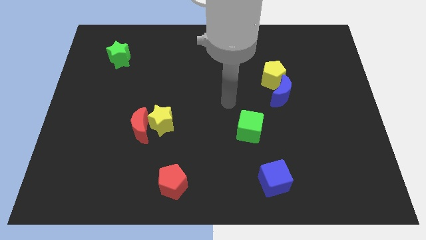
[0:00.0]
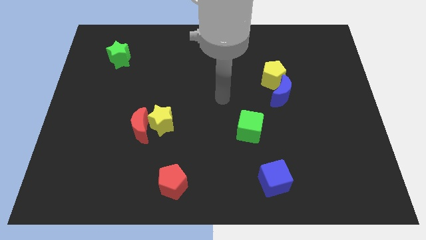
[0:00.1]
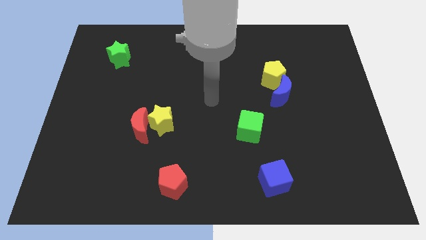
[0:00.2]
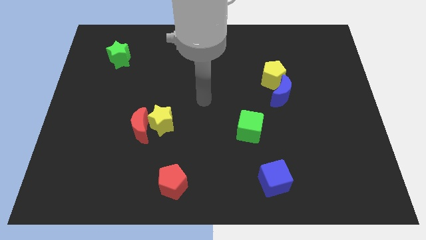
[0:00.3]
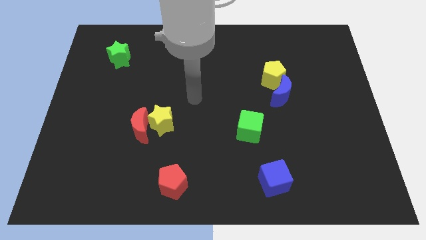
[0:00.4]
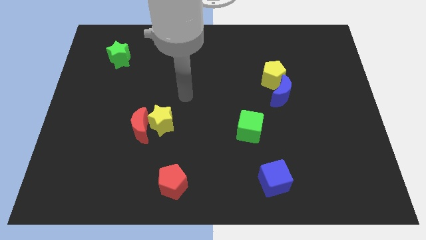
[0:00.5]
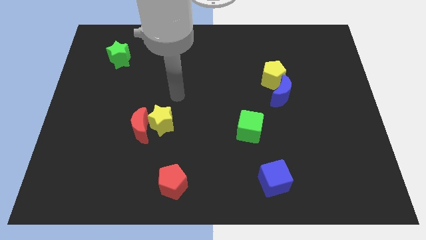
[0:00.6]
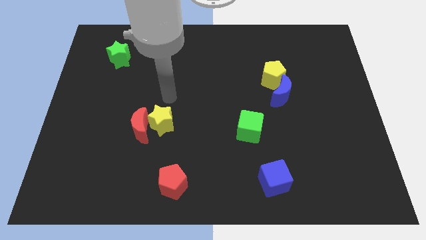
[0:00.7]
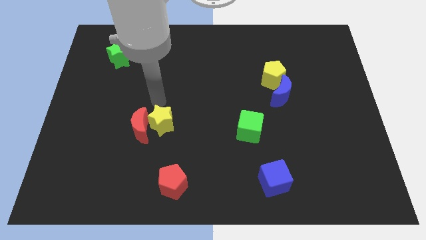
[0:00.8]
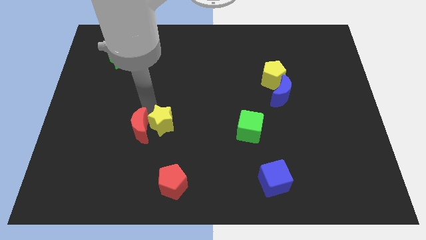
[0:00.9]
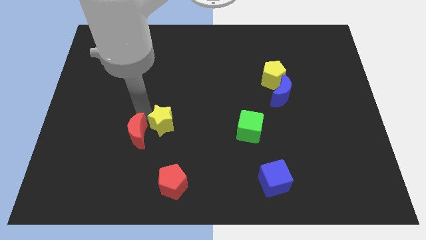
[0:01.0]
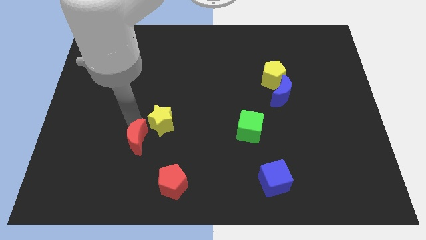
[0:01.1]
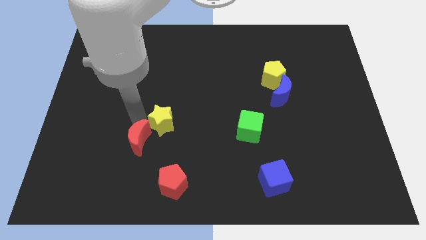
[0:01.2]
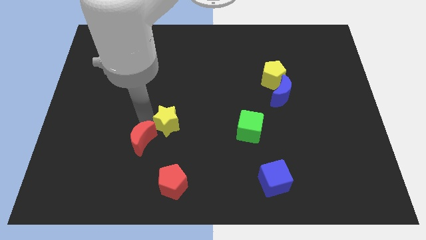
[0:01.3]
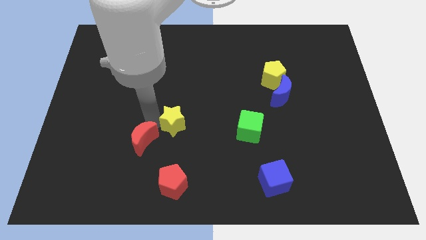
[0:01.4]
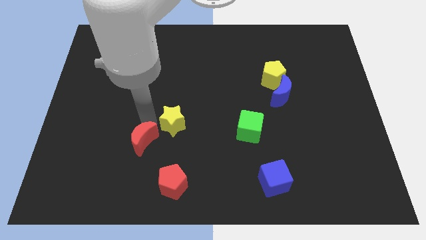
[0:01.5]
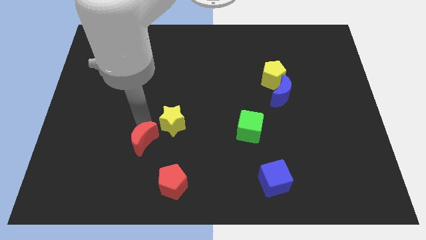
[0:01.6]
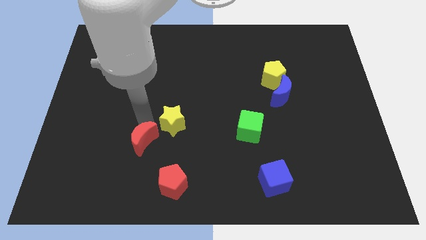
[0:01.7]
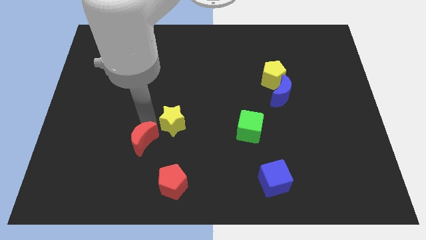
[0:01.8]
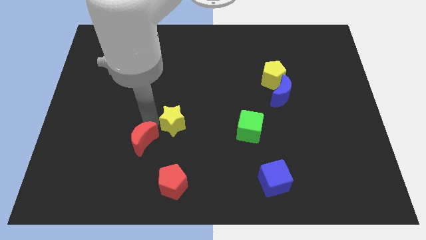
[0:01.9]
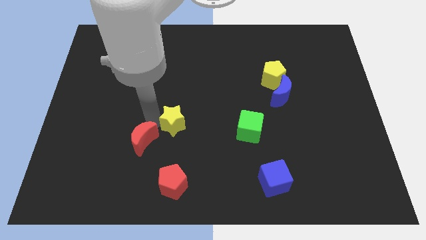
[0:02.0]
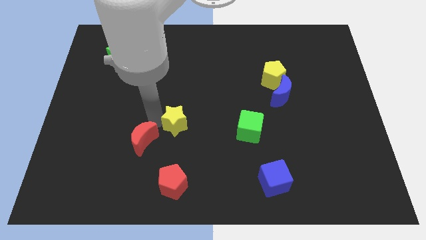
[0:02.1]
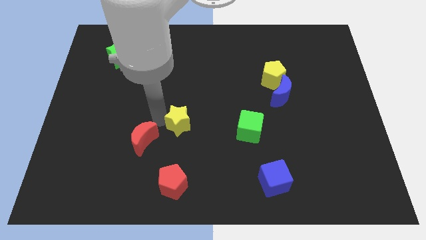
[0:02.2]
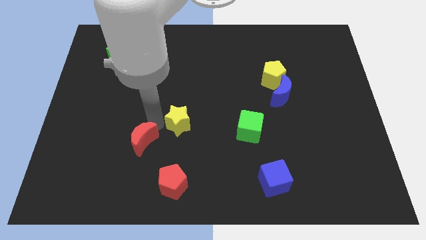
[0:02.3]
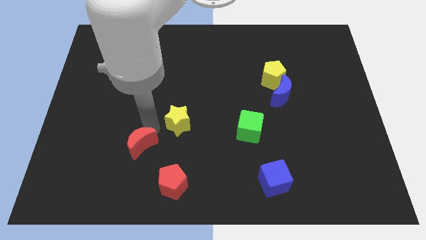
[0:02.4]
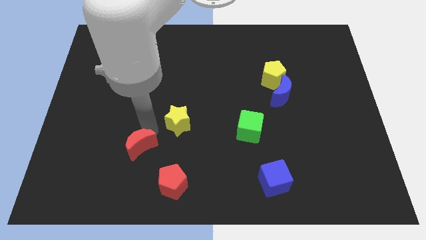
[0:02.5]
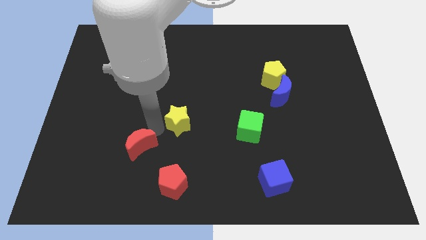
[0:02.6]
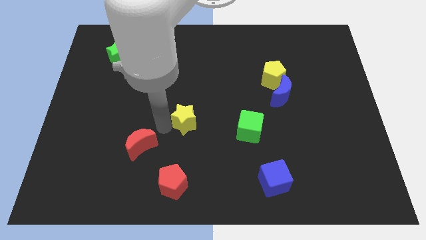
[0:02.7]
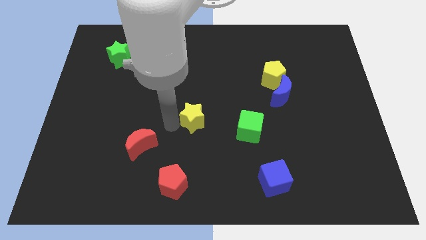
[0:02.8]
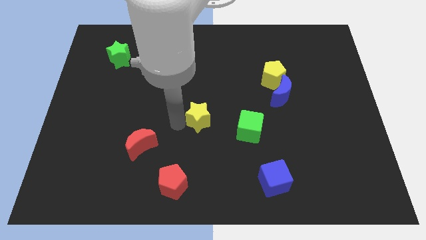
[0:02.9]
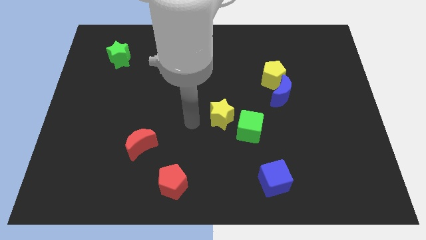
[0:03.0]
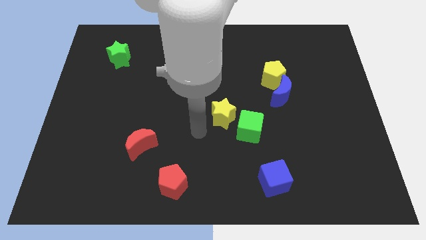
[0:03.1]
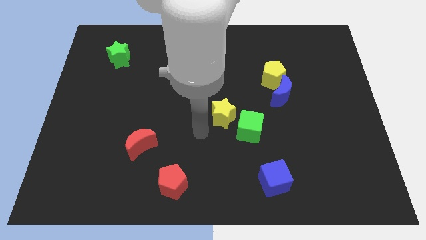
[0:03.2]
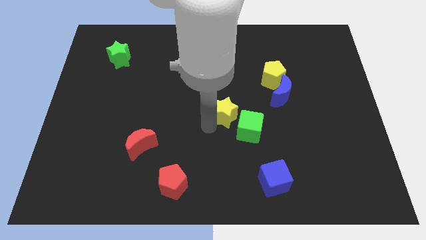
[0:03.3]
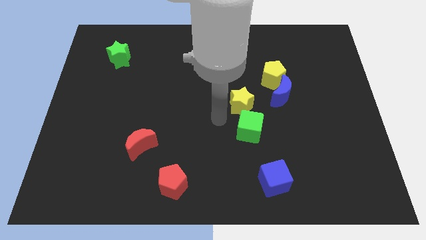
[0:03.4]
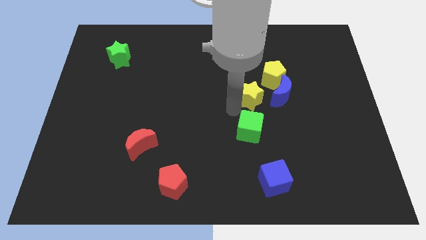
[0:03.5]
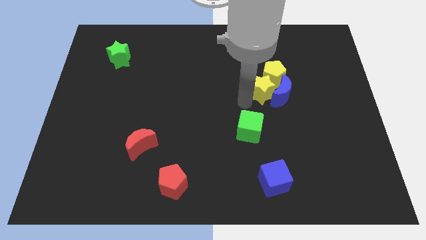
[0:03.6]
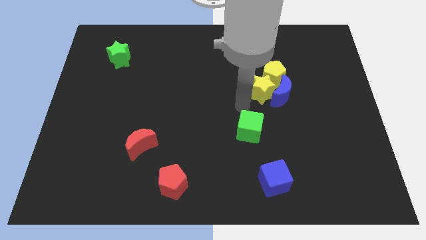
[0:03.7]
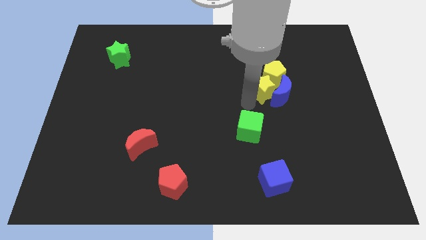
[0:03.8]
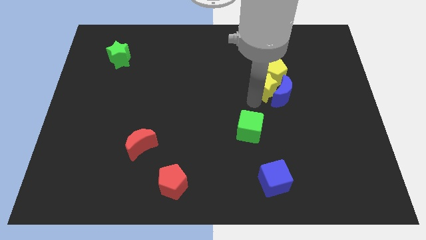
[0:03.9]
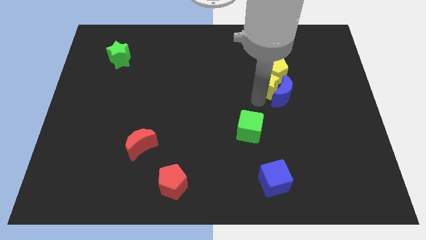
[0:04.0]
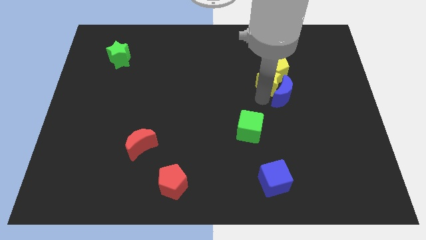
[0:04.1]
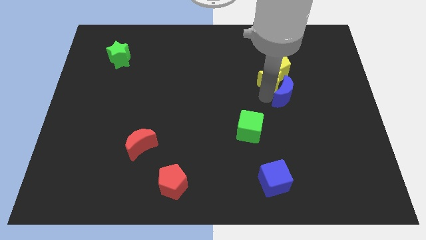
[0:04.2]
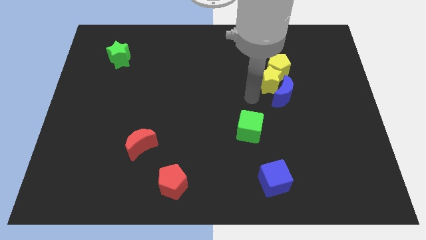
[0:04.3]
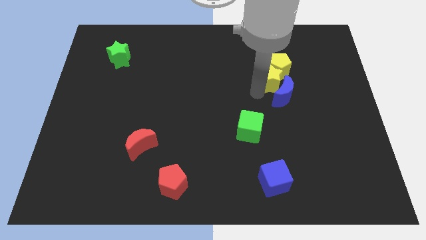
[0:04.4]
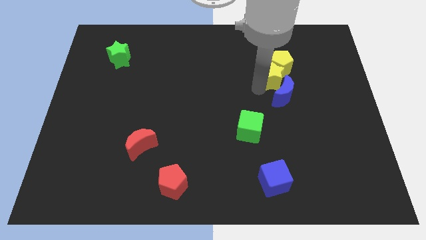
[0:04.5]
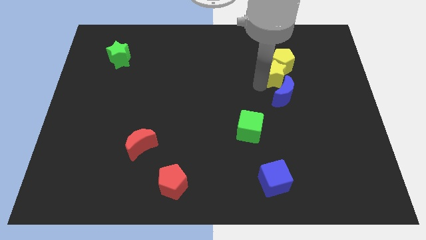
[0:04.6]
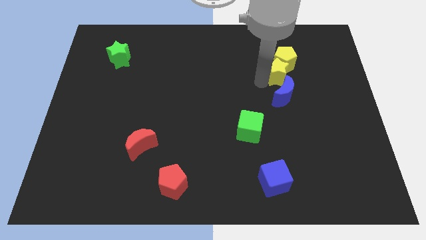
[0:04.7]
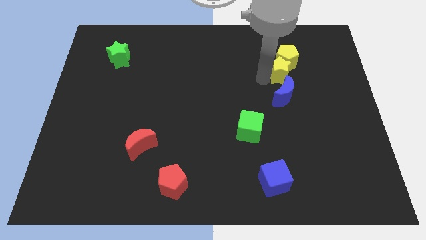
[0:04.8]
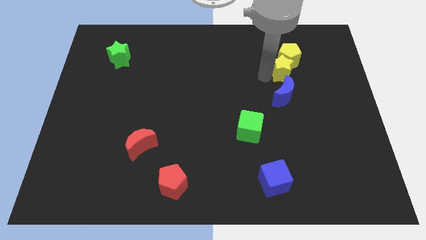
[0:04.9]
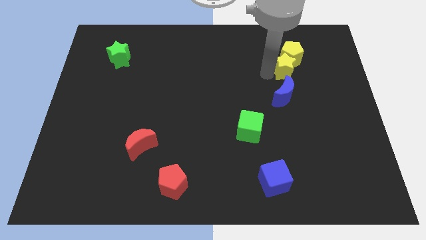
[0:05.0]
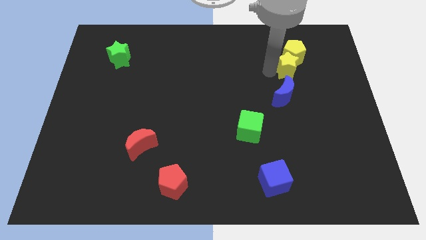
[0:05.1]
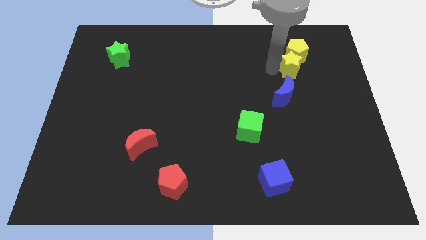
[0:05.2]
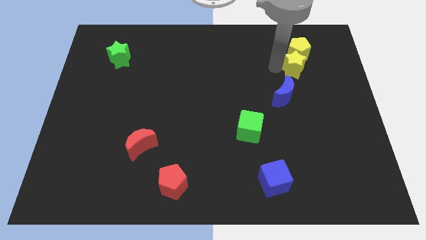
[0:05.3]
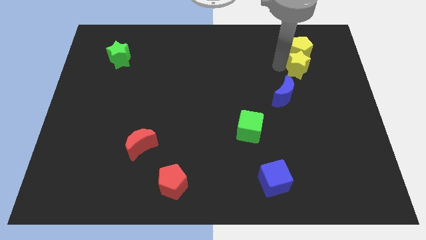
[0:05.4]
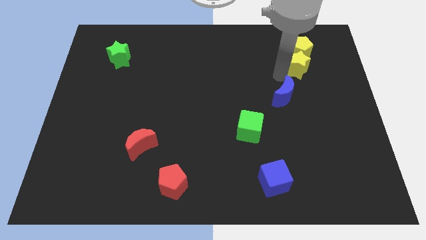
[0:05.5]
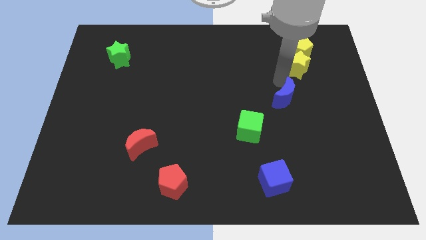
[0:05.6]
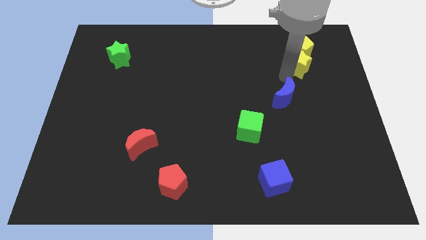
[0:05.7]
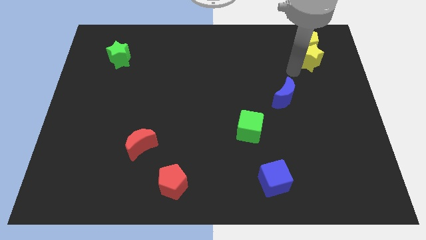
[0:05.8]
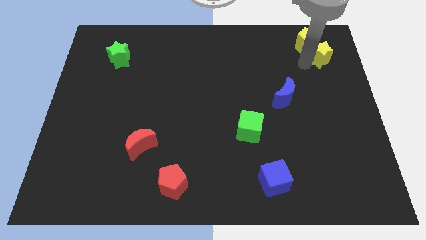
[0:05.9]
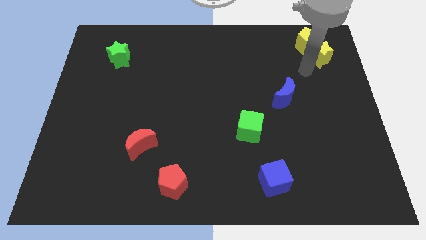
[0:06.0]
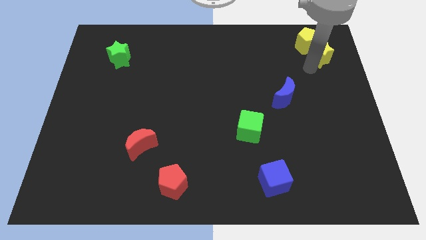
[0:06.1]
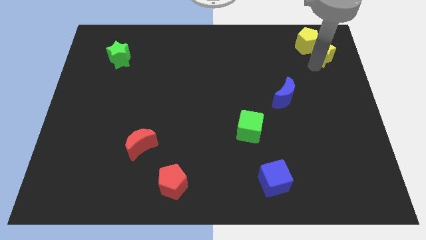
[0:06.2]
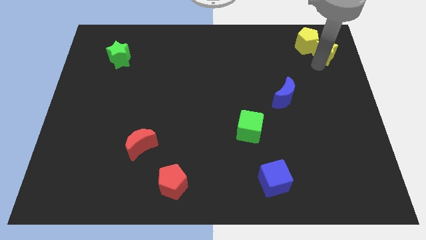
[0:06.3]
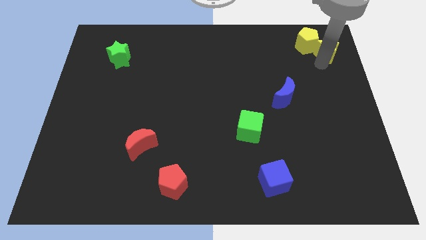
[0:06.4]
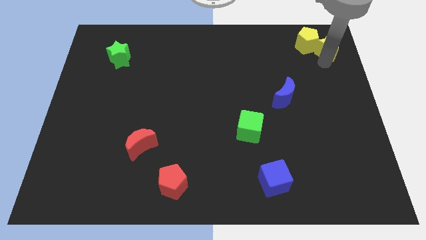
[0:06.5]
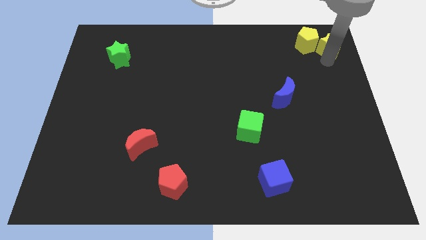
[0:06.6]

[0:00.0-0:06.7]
push the yellow star to the top right of the board
